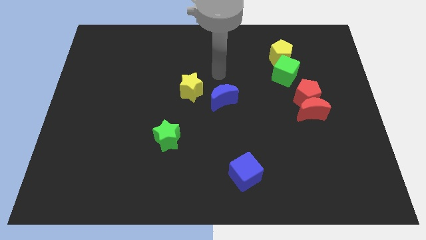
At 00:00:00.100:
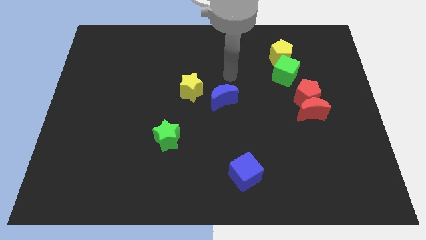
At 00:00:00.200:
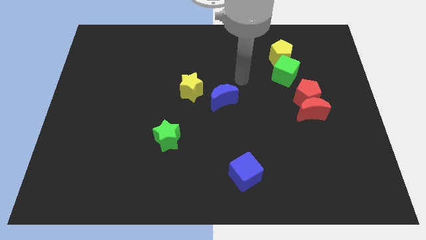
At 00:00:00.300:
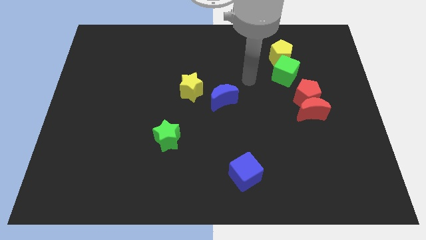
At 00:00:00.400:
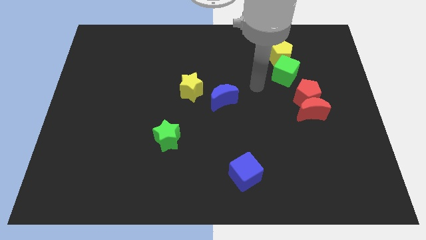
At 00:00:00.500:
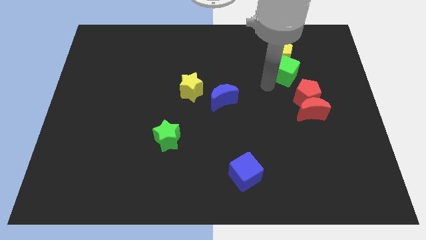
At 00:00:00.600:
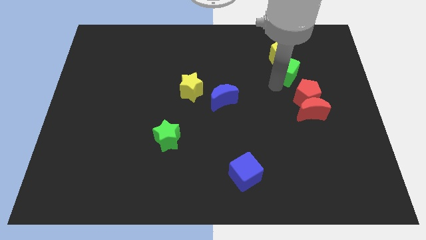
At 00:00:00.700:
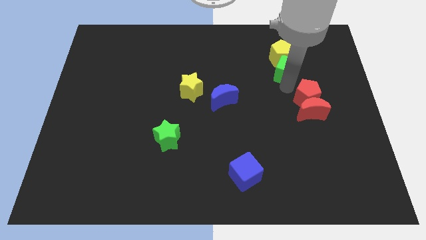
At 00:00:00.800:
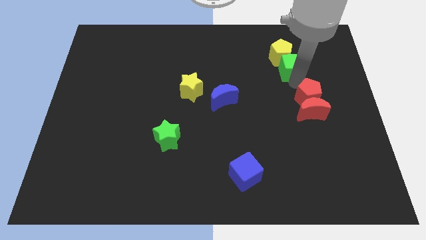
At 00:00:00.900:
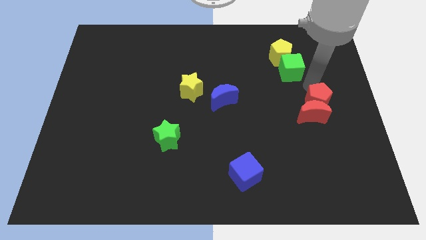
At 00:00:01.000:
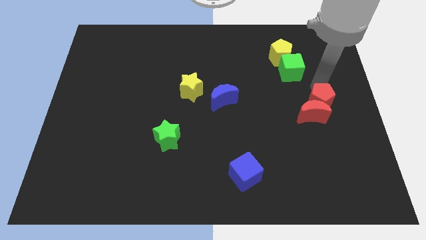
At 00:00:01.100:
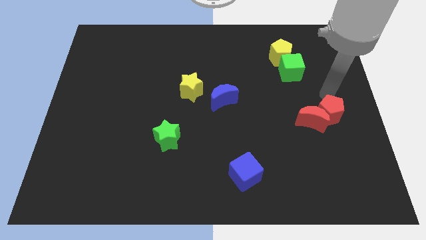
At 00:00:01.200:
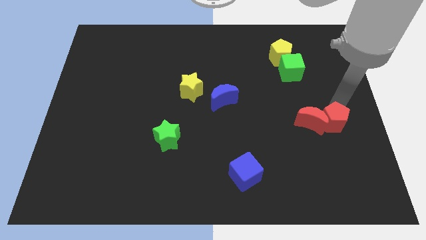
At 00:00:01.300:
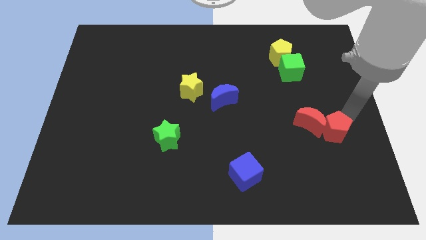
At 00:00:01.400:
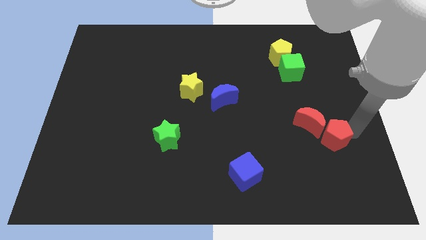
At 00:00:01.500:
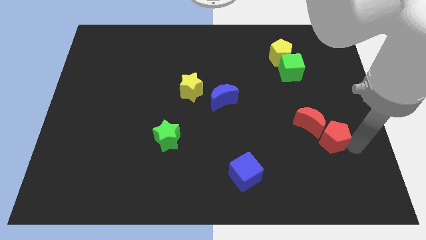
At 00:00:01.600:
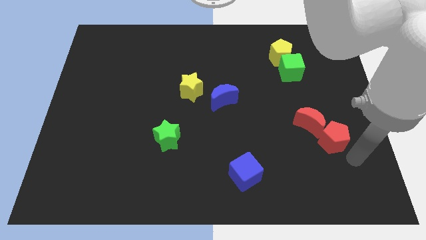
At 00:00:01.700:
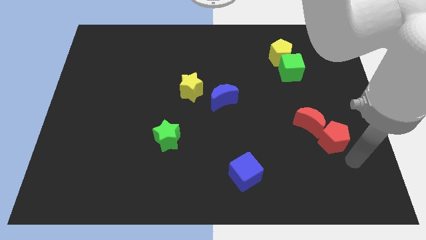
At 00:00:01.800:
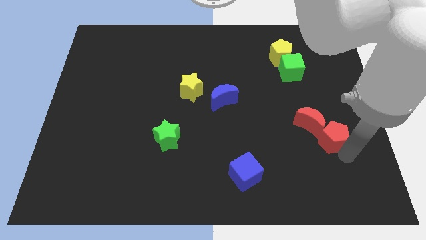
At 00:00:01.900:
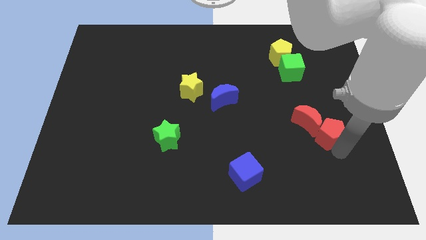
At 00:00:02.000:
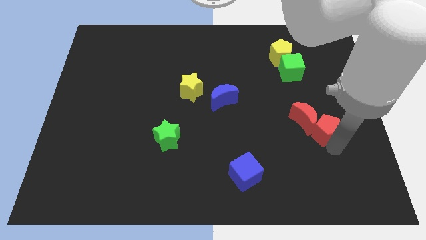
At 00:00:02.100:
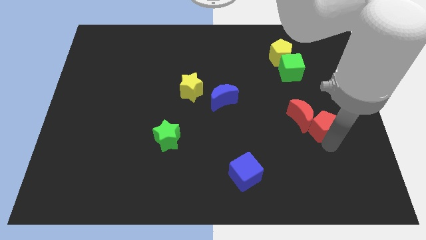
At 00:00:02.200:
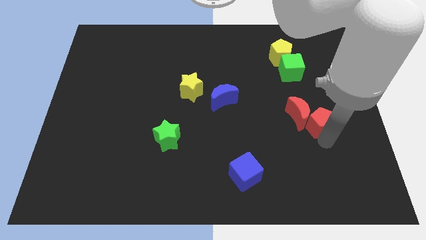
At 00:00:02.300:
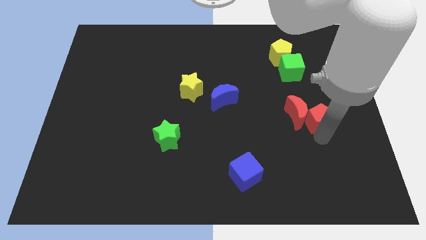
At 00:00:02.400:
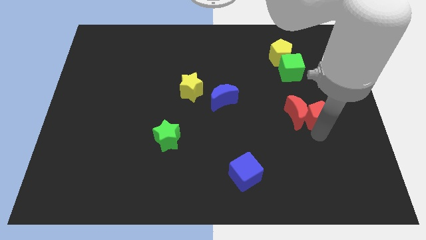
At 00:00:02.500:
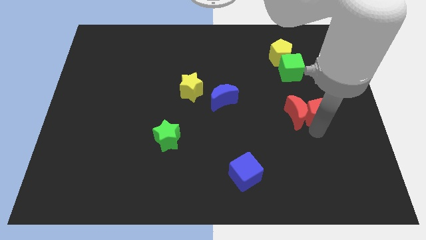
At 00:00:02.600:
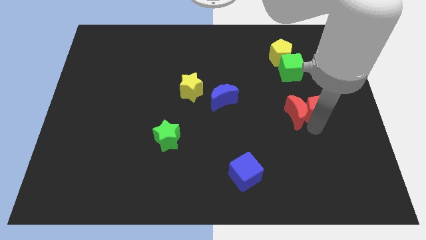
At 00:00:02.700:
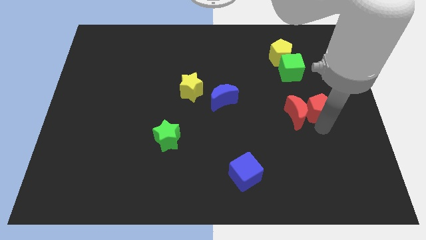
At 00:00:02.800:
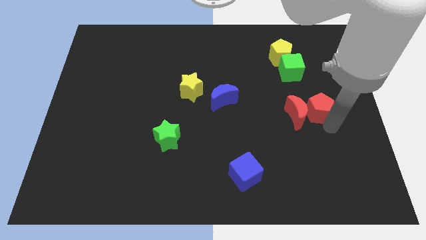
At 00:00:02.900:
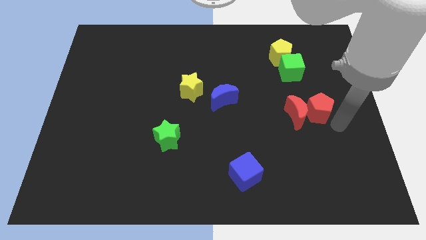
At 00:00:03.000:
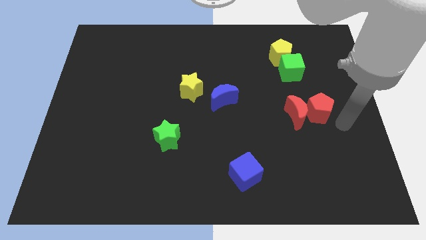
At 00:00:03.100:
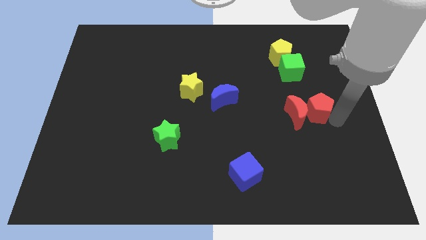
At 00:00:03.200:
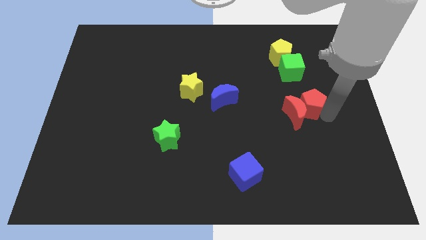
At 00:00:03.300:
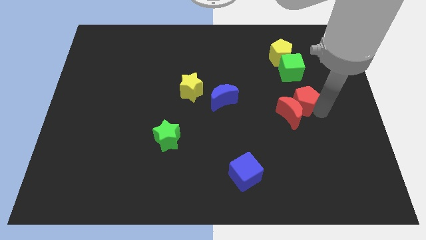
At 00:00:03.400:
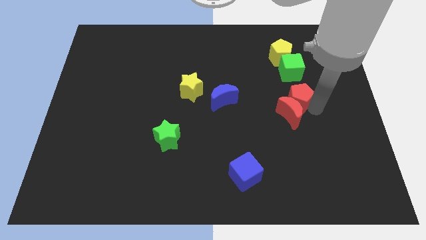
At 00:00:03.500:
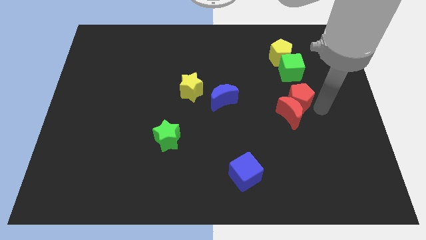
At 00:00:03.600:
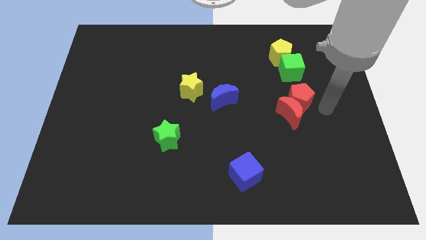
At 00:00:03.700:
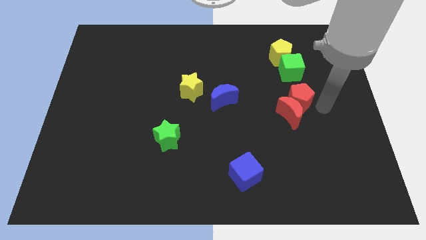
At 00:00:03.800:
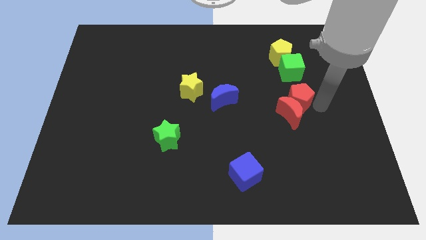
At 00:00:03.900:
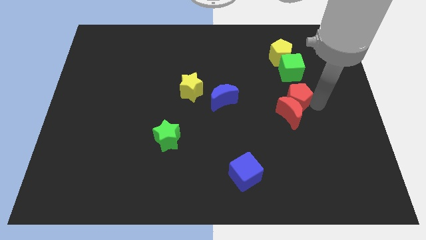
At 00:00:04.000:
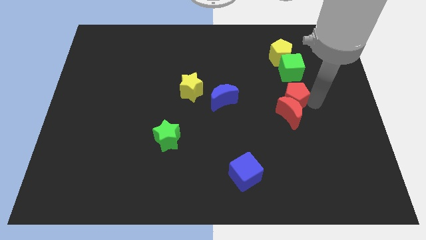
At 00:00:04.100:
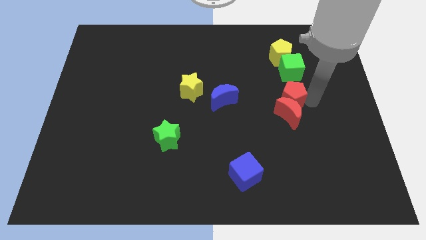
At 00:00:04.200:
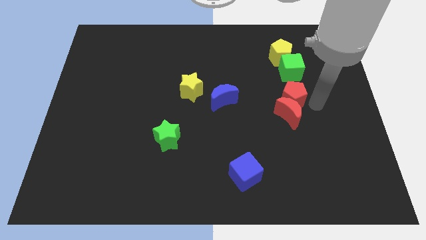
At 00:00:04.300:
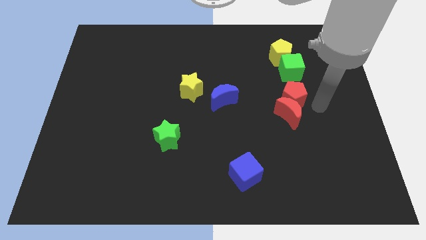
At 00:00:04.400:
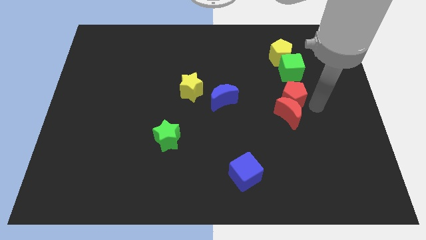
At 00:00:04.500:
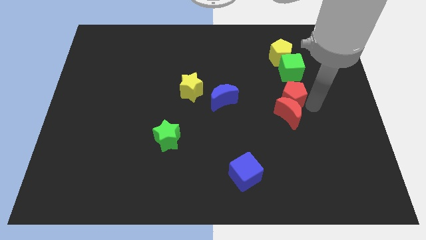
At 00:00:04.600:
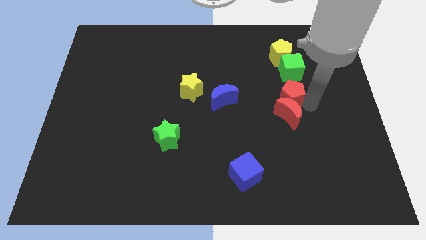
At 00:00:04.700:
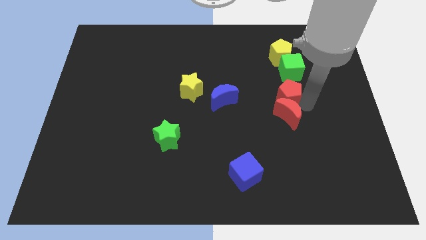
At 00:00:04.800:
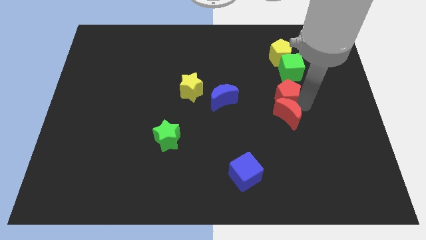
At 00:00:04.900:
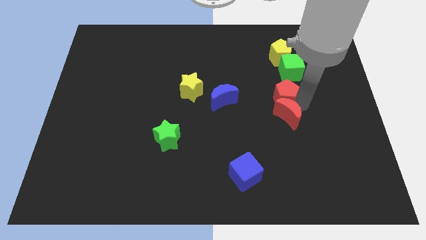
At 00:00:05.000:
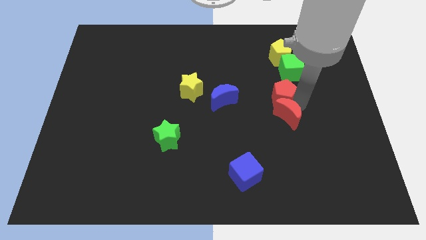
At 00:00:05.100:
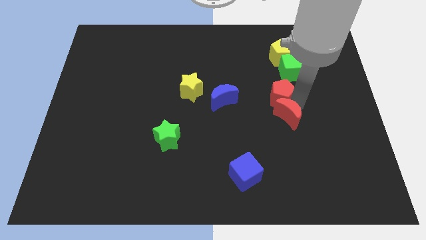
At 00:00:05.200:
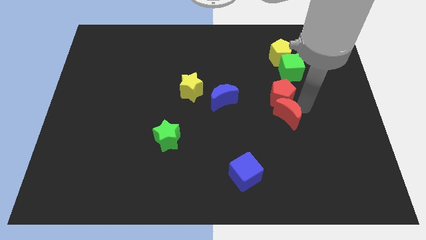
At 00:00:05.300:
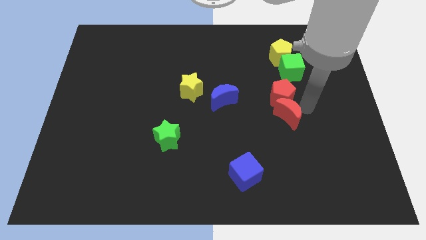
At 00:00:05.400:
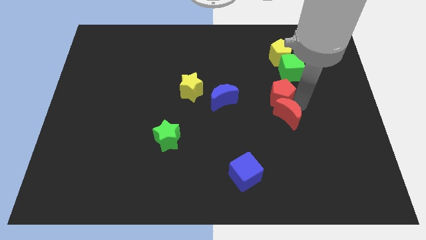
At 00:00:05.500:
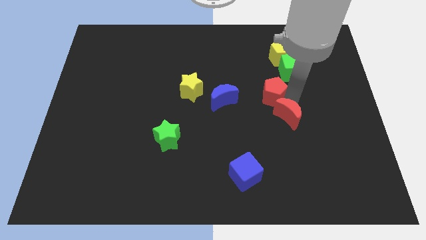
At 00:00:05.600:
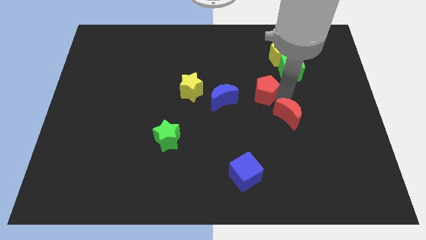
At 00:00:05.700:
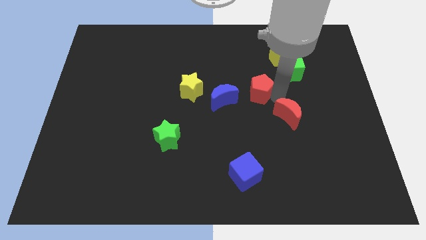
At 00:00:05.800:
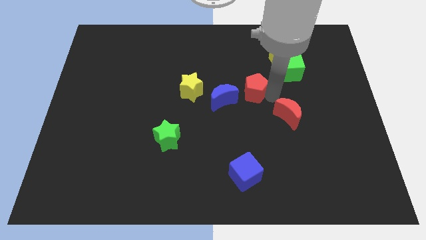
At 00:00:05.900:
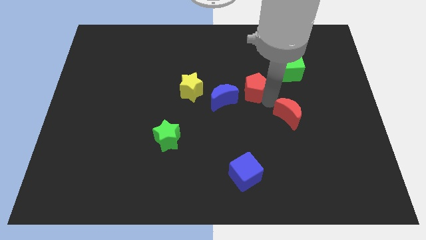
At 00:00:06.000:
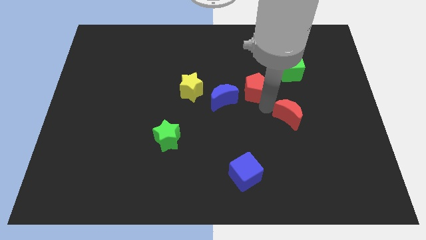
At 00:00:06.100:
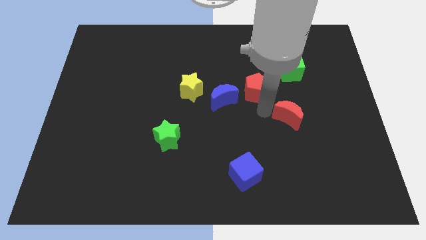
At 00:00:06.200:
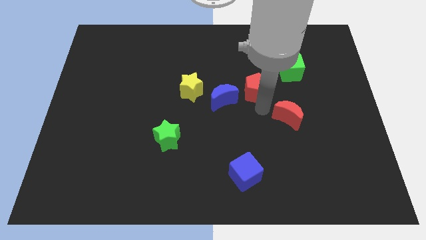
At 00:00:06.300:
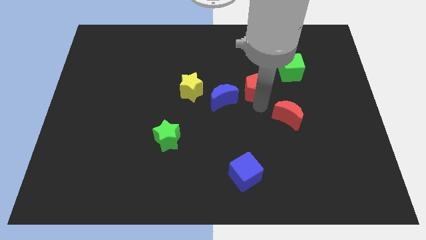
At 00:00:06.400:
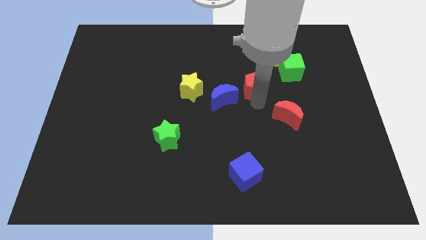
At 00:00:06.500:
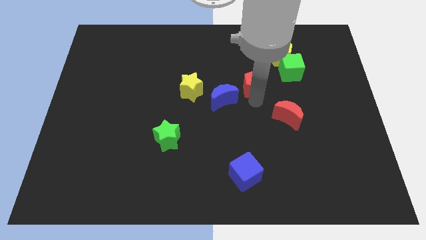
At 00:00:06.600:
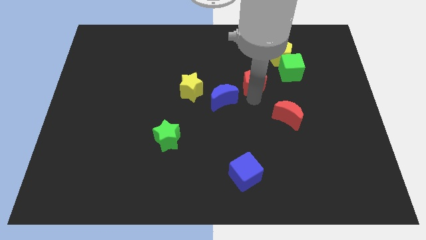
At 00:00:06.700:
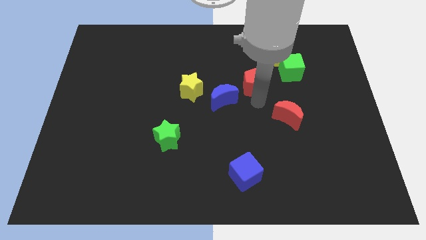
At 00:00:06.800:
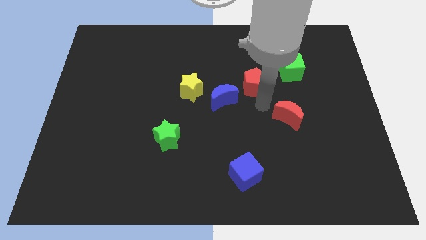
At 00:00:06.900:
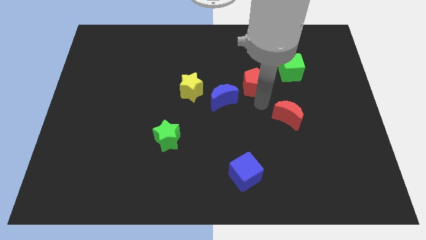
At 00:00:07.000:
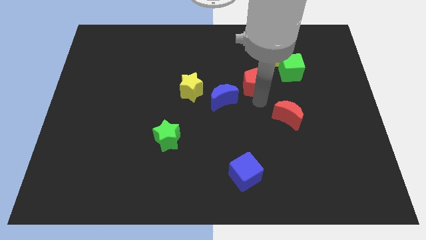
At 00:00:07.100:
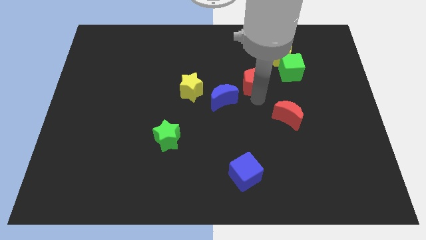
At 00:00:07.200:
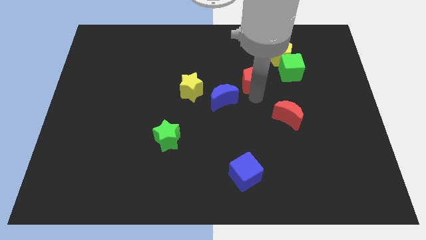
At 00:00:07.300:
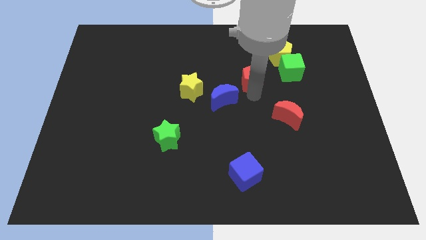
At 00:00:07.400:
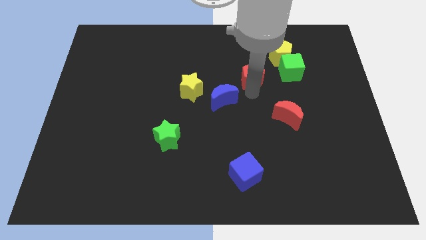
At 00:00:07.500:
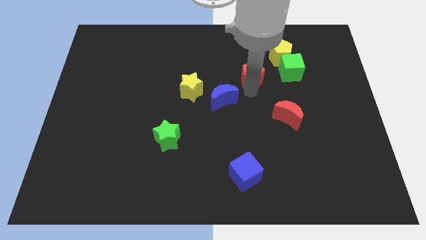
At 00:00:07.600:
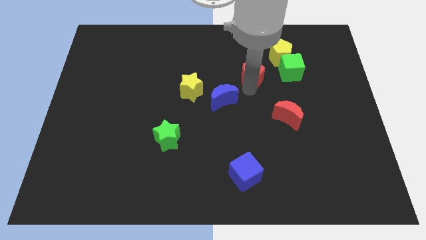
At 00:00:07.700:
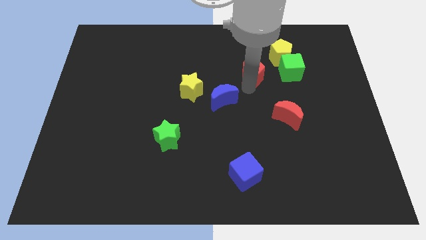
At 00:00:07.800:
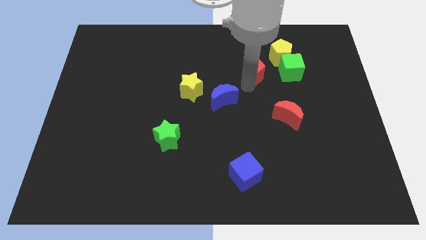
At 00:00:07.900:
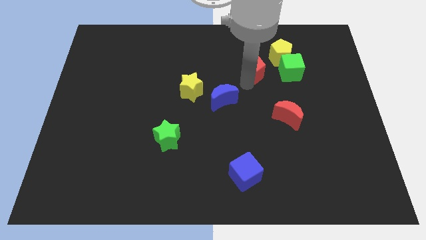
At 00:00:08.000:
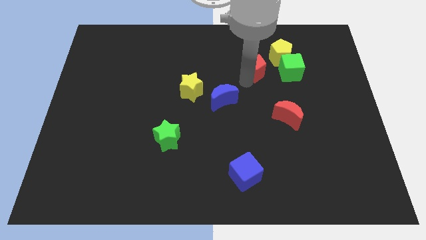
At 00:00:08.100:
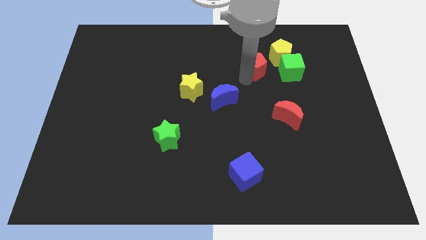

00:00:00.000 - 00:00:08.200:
put the red pentagon to the left side of the yellow pentagon
